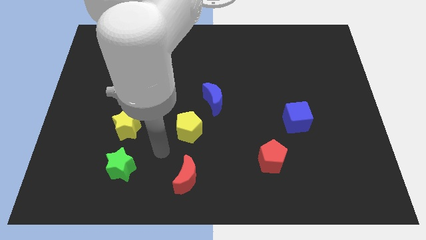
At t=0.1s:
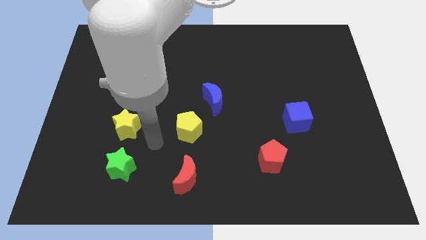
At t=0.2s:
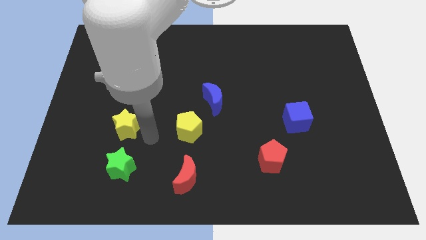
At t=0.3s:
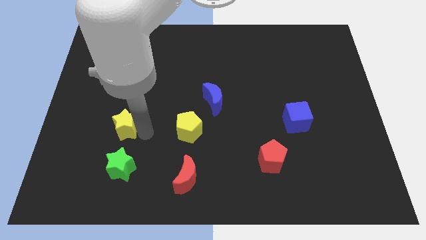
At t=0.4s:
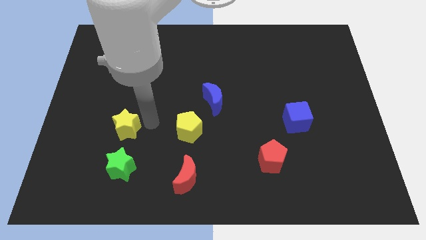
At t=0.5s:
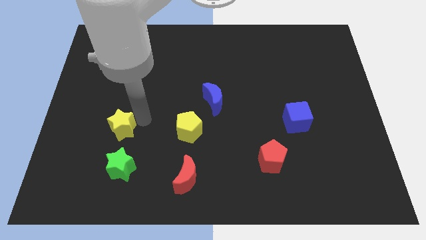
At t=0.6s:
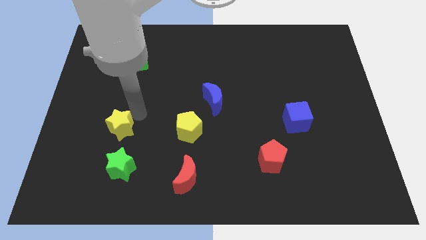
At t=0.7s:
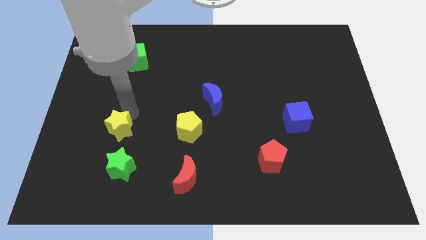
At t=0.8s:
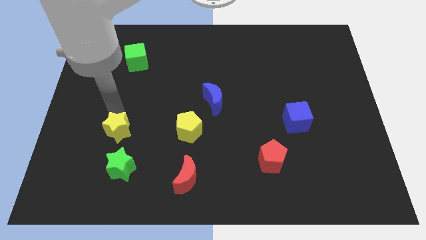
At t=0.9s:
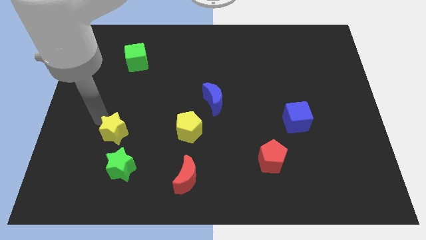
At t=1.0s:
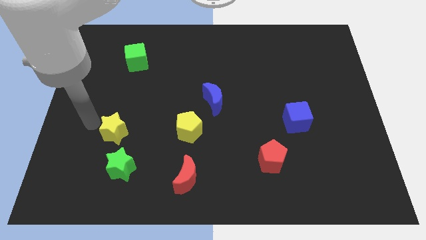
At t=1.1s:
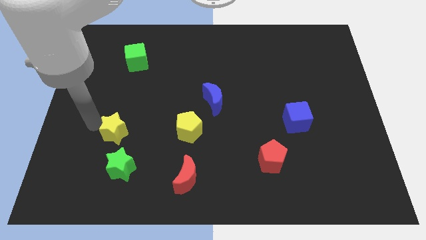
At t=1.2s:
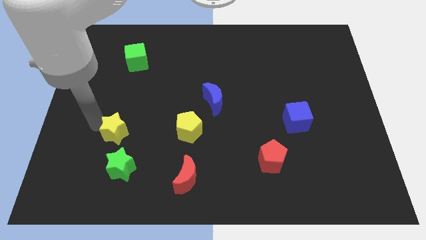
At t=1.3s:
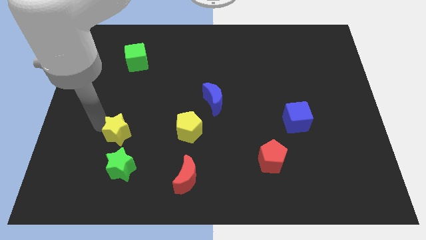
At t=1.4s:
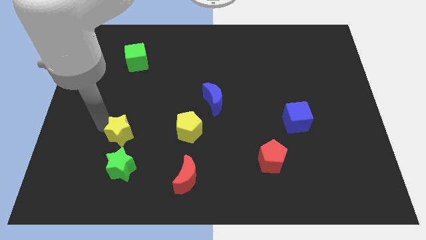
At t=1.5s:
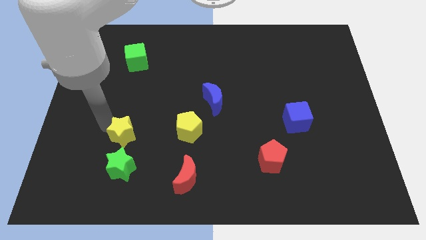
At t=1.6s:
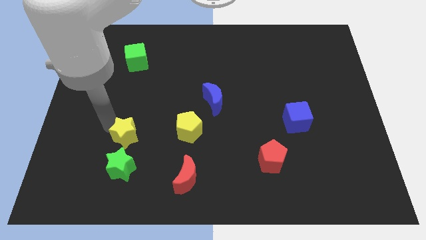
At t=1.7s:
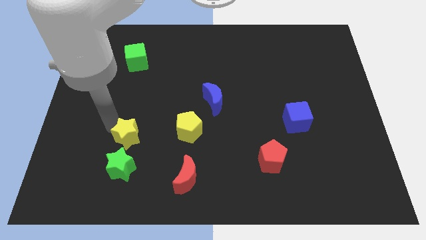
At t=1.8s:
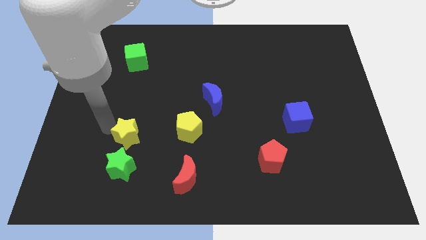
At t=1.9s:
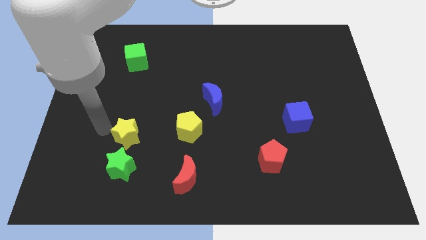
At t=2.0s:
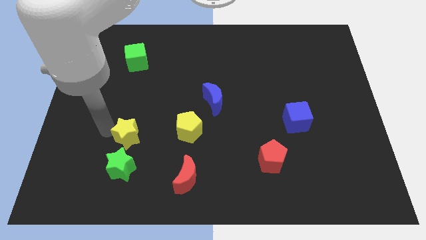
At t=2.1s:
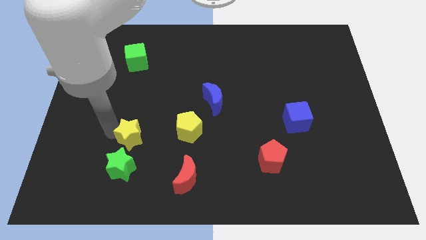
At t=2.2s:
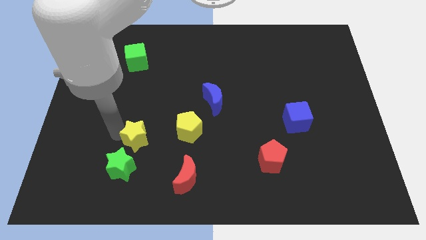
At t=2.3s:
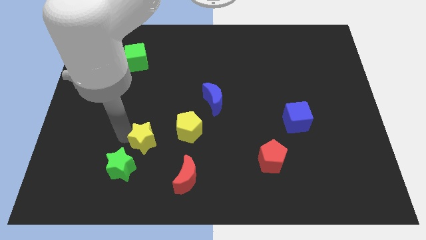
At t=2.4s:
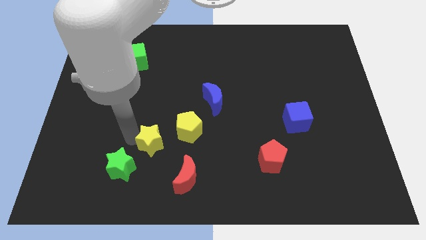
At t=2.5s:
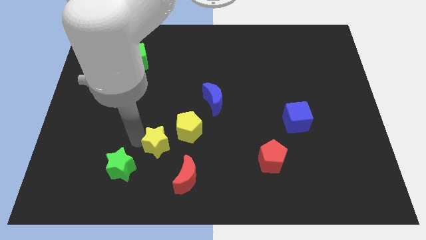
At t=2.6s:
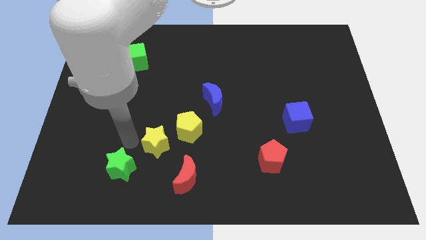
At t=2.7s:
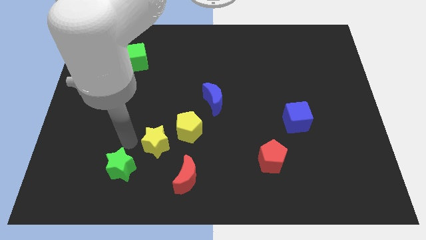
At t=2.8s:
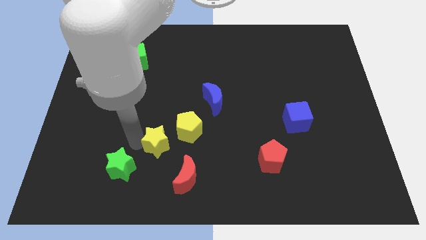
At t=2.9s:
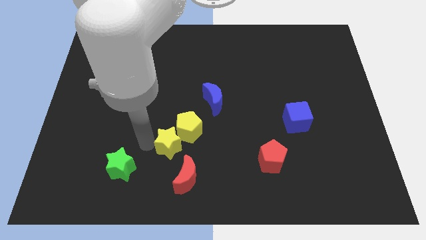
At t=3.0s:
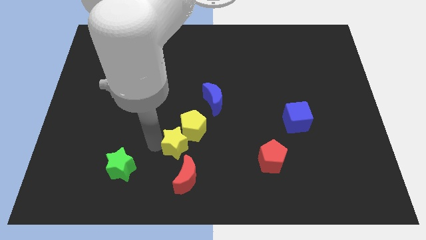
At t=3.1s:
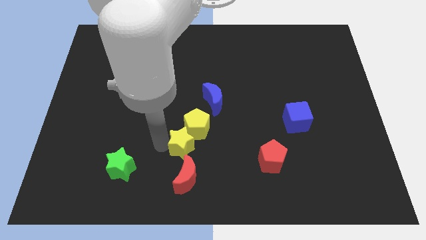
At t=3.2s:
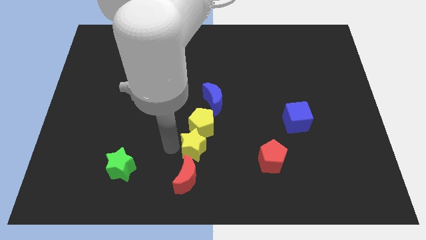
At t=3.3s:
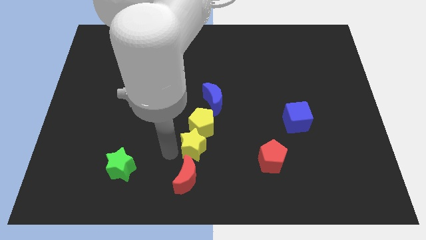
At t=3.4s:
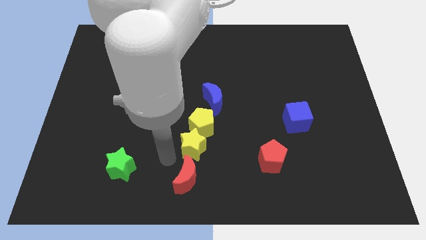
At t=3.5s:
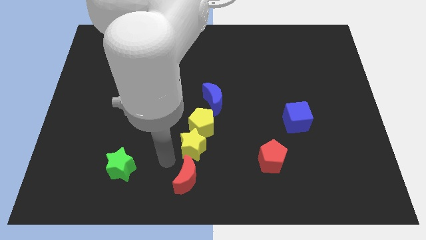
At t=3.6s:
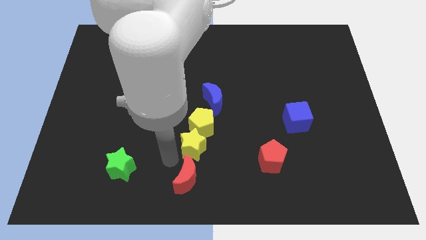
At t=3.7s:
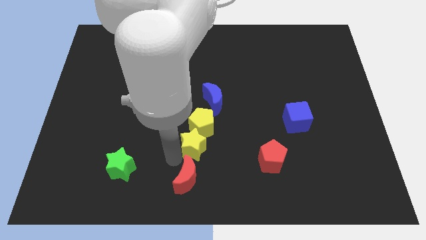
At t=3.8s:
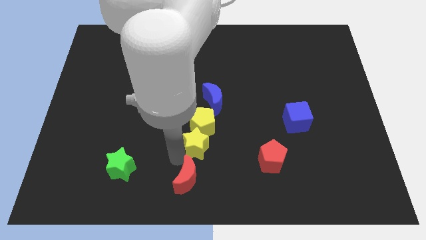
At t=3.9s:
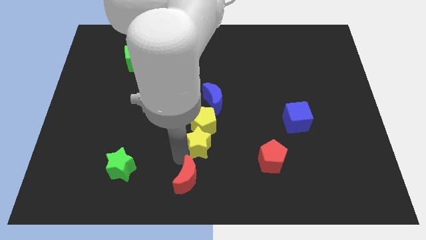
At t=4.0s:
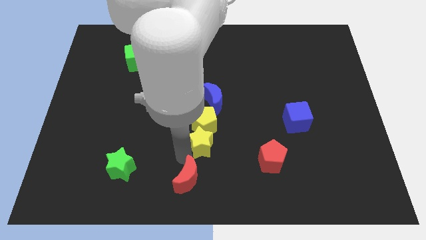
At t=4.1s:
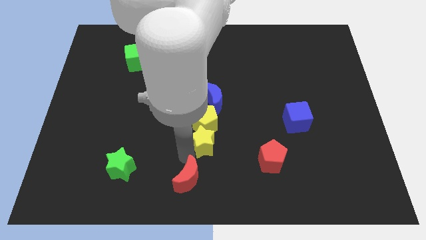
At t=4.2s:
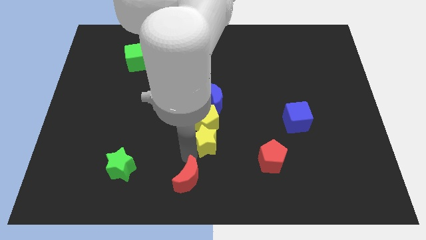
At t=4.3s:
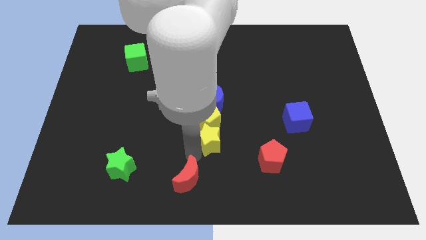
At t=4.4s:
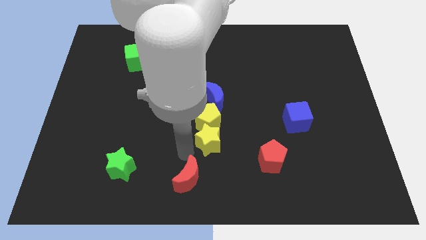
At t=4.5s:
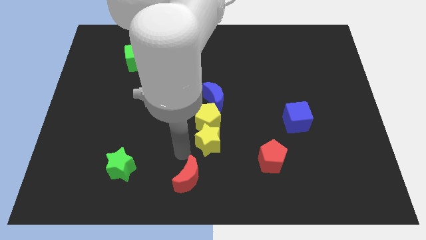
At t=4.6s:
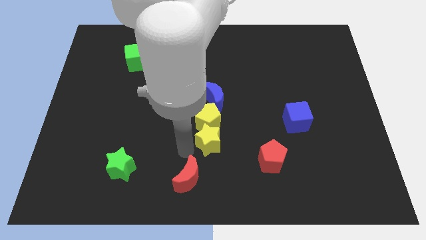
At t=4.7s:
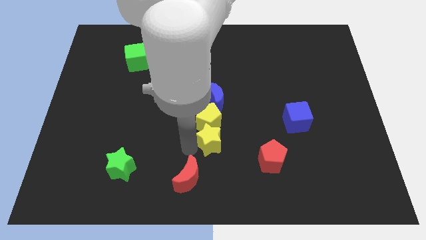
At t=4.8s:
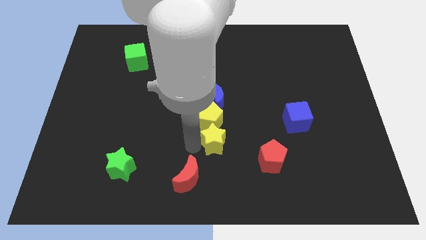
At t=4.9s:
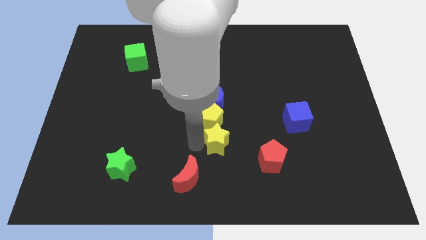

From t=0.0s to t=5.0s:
move the yellow star right

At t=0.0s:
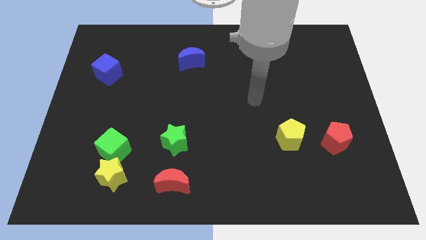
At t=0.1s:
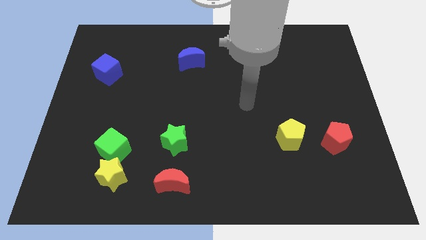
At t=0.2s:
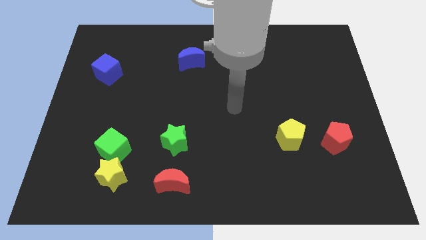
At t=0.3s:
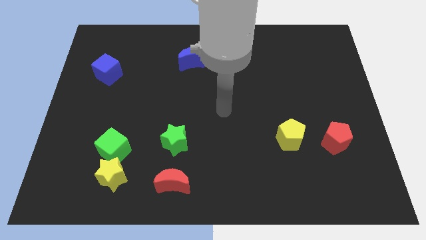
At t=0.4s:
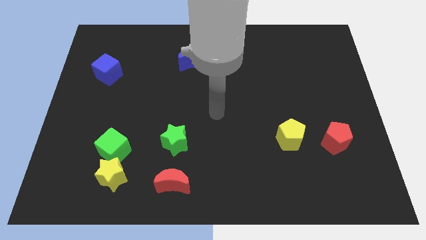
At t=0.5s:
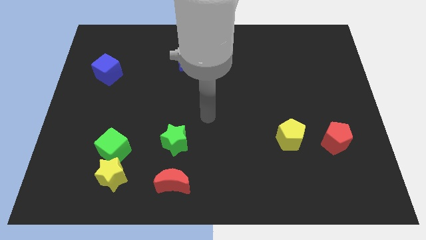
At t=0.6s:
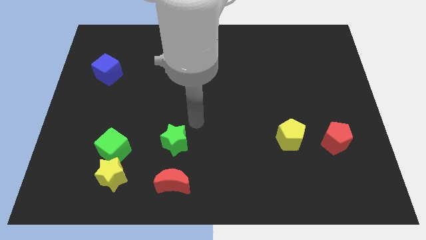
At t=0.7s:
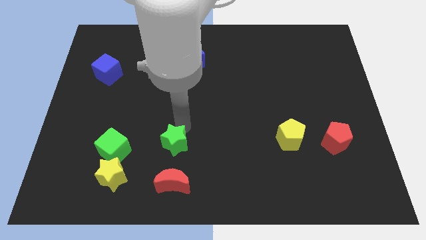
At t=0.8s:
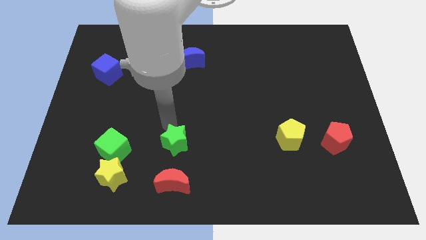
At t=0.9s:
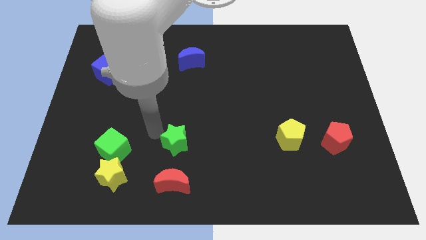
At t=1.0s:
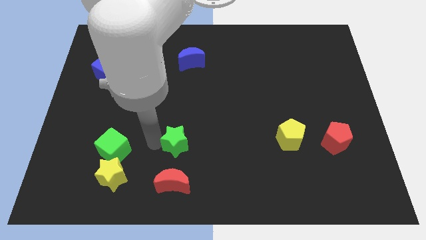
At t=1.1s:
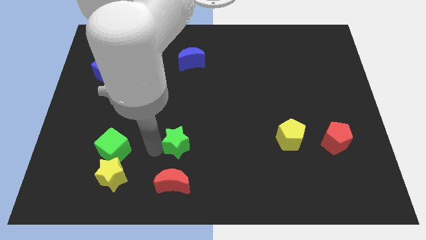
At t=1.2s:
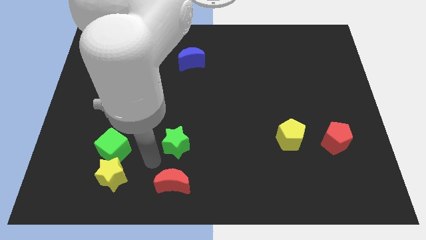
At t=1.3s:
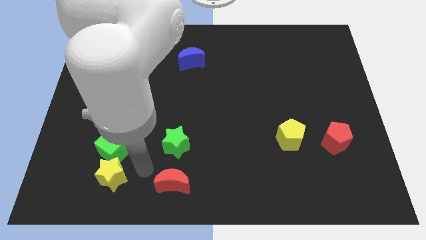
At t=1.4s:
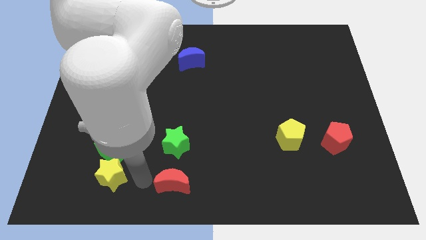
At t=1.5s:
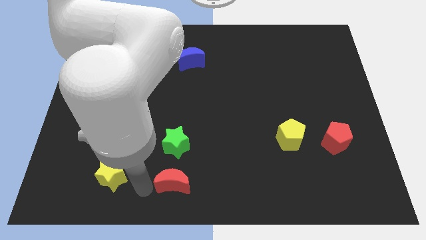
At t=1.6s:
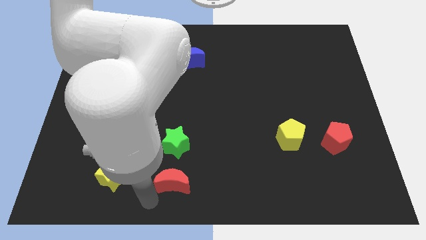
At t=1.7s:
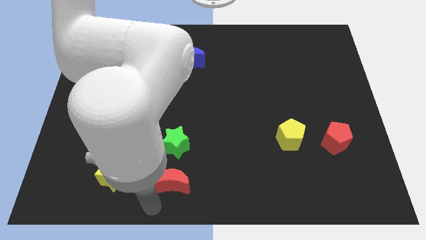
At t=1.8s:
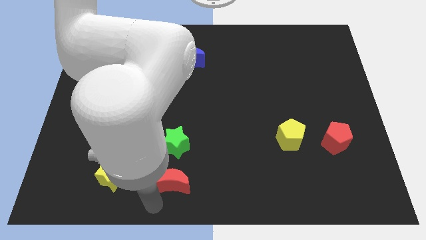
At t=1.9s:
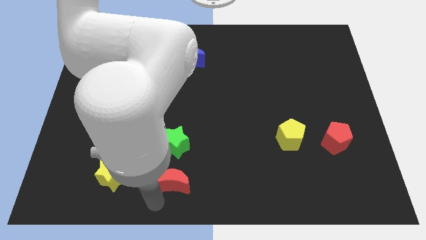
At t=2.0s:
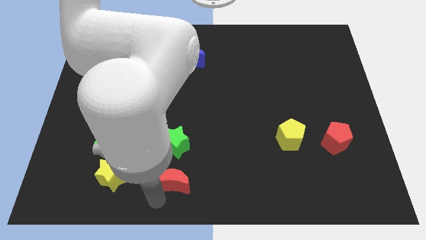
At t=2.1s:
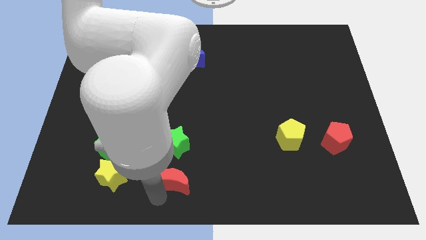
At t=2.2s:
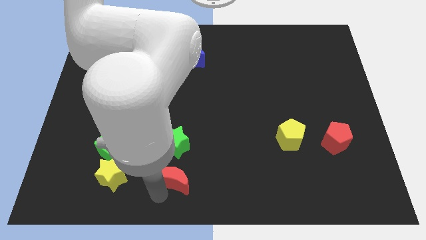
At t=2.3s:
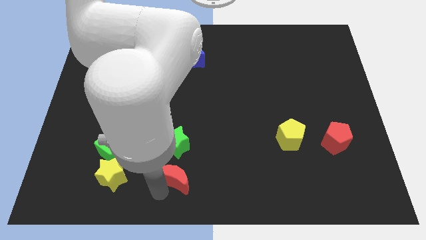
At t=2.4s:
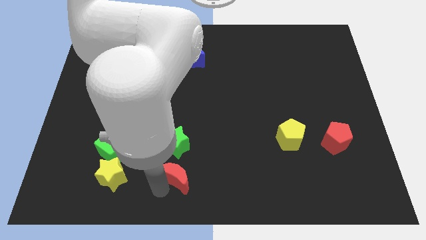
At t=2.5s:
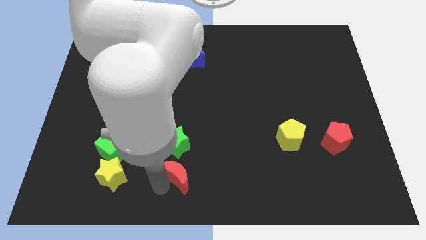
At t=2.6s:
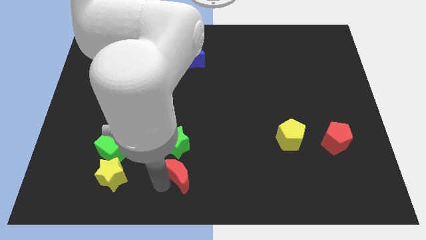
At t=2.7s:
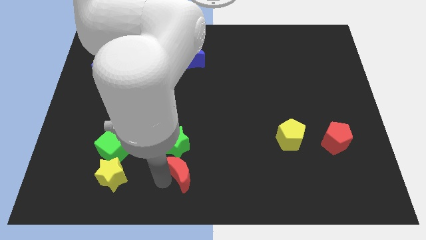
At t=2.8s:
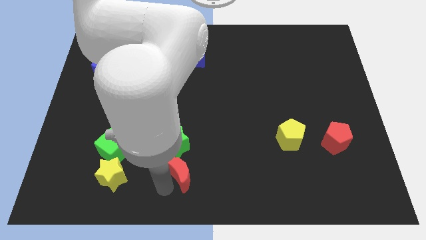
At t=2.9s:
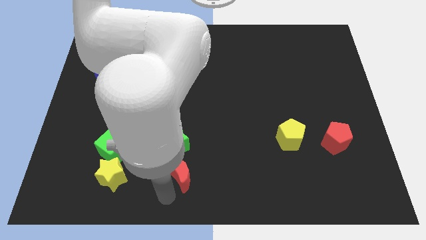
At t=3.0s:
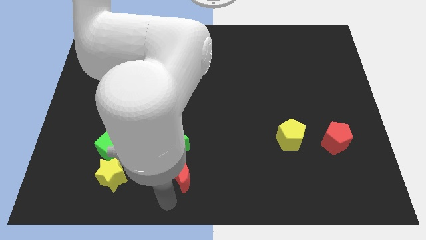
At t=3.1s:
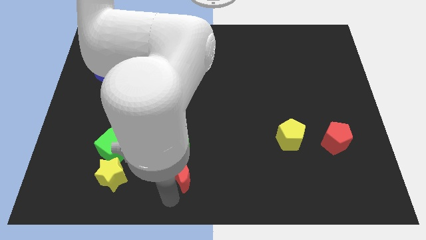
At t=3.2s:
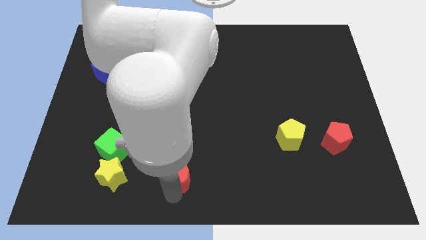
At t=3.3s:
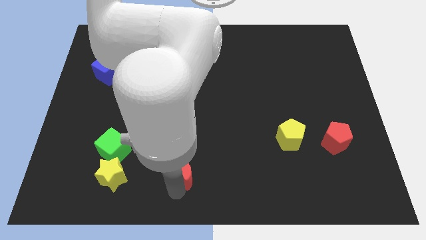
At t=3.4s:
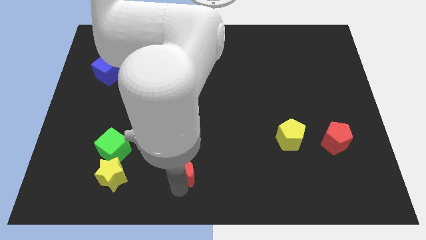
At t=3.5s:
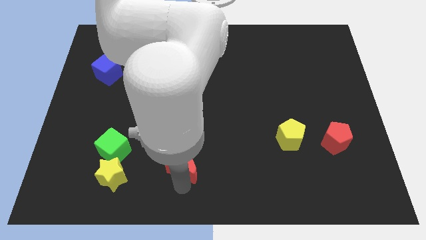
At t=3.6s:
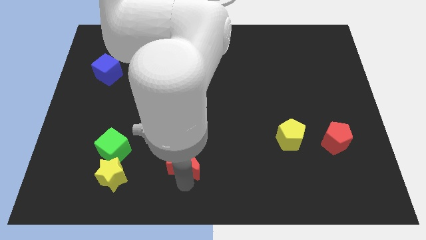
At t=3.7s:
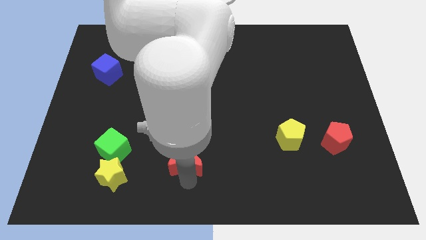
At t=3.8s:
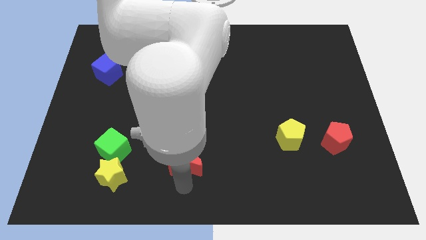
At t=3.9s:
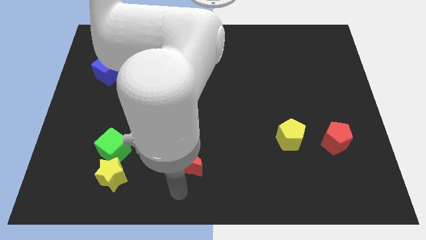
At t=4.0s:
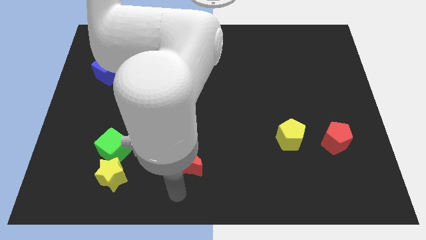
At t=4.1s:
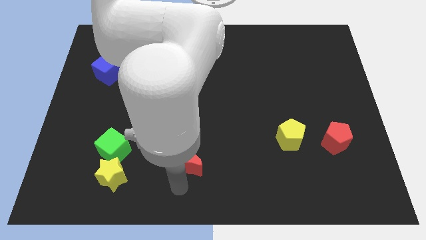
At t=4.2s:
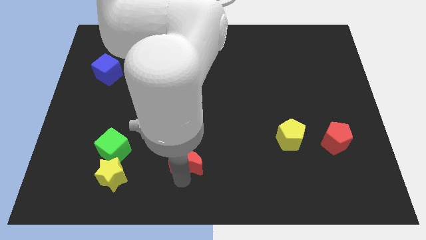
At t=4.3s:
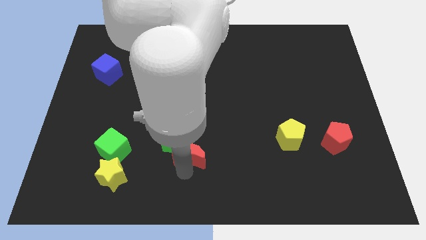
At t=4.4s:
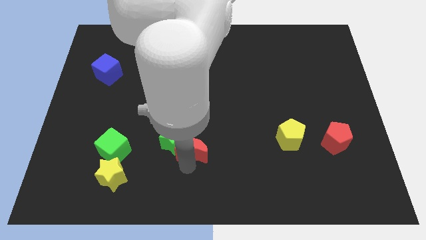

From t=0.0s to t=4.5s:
slightly push the red moon upwards
